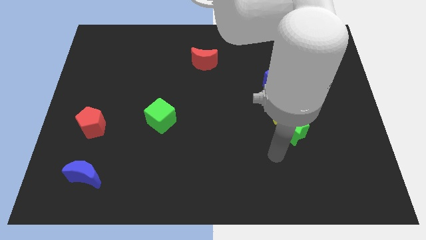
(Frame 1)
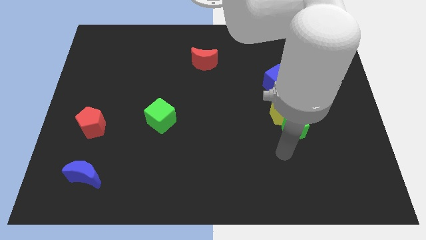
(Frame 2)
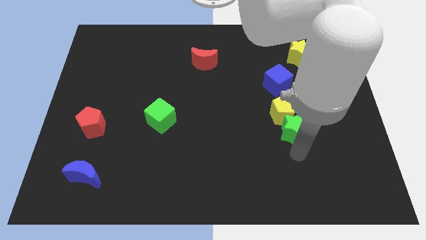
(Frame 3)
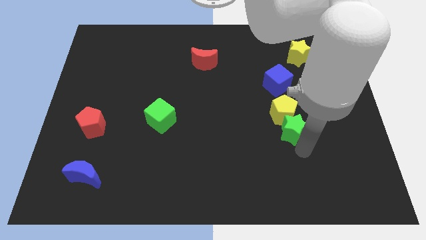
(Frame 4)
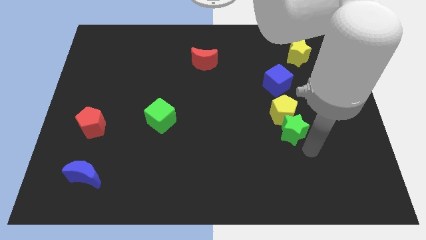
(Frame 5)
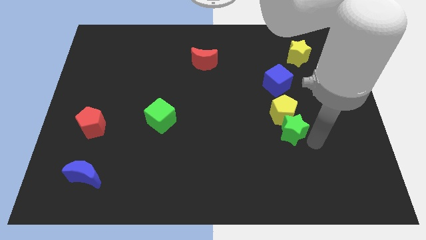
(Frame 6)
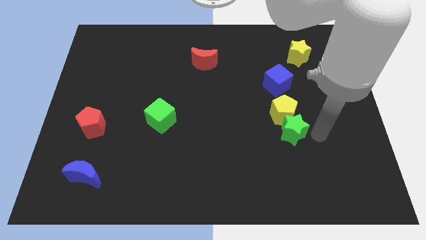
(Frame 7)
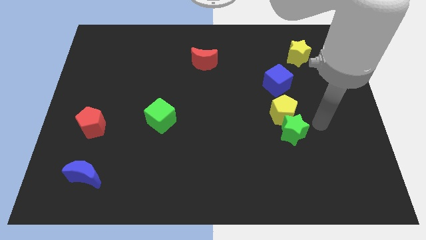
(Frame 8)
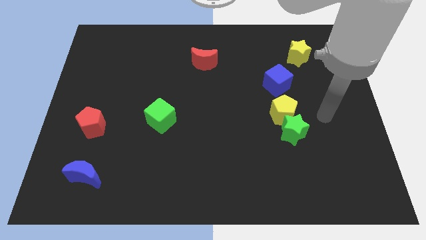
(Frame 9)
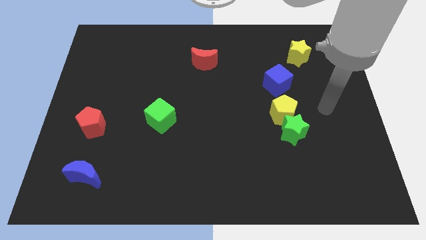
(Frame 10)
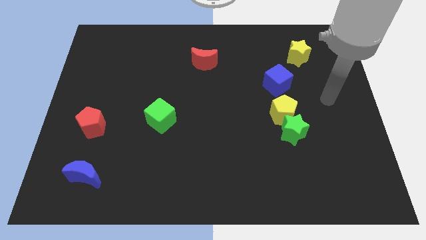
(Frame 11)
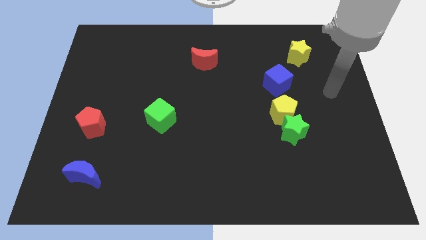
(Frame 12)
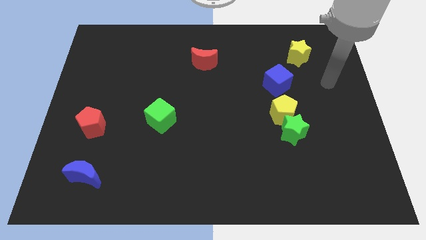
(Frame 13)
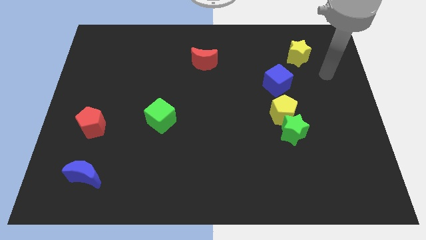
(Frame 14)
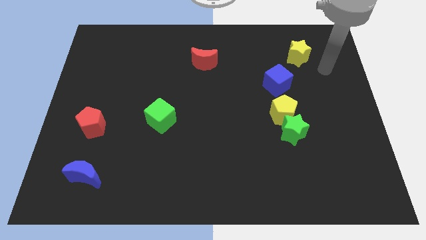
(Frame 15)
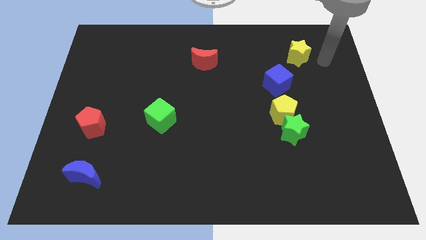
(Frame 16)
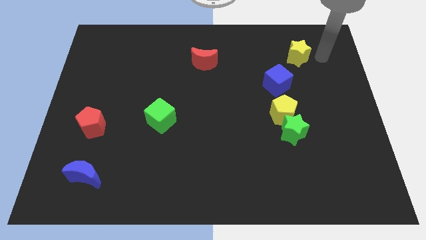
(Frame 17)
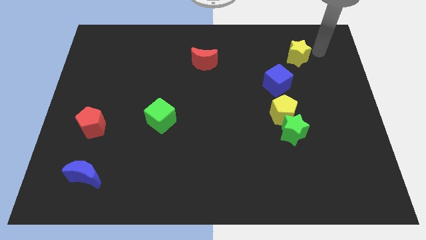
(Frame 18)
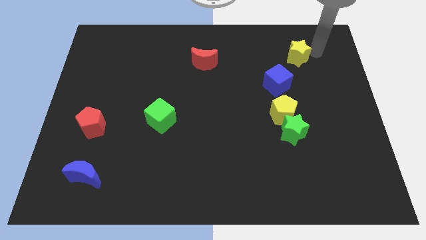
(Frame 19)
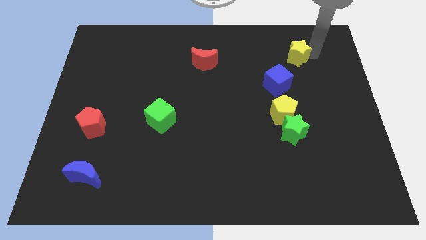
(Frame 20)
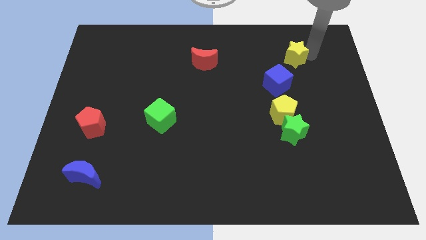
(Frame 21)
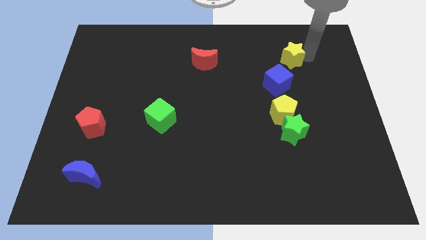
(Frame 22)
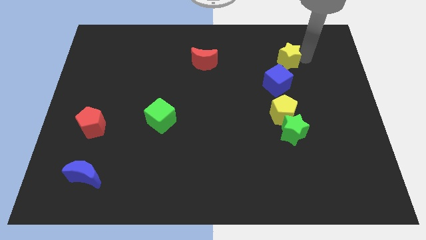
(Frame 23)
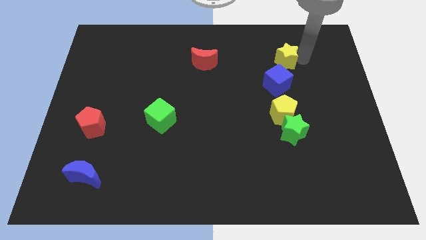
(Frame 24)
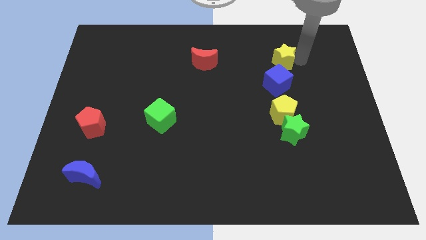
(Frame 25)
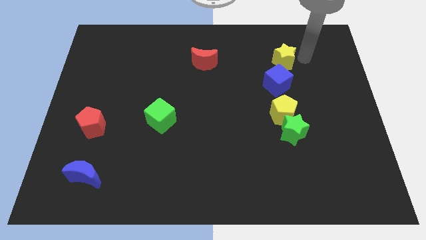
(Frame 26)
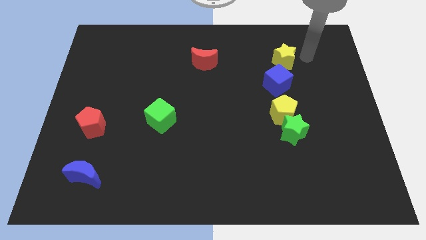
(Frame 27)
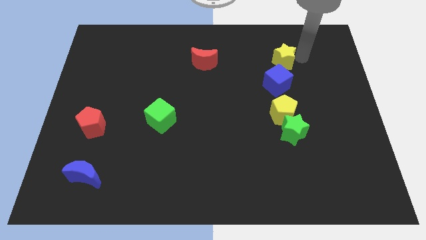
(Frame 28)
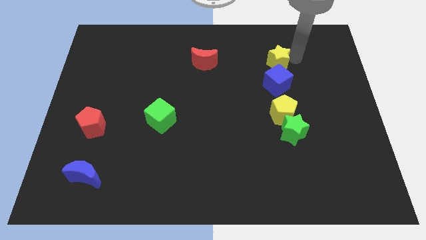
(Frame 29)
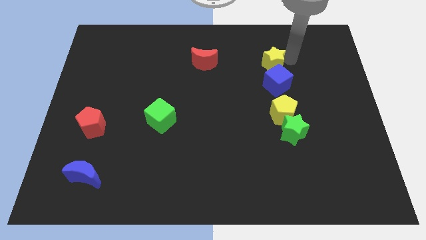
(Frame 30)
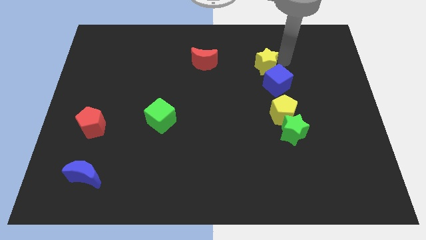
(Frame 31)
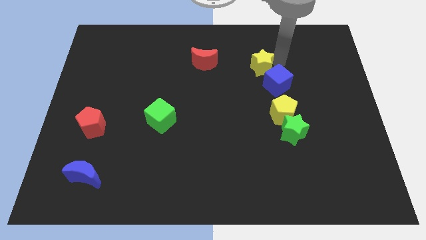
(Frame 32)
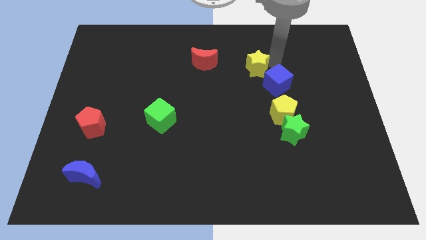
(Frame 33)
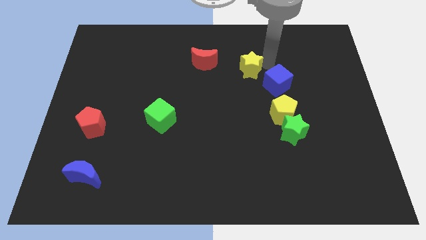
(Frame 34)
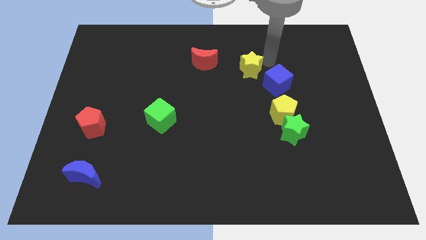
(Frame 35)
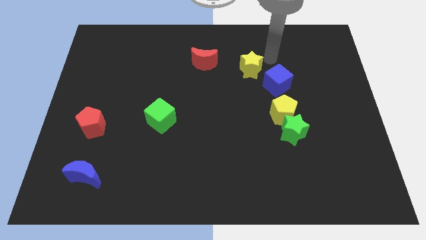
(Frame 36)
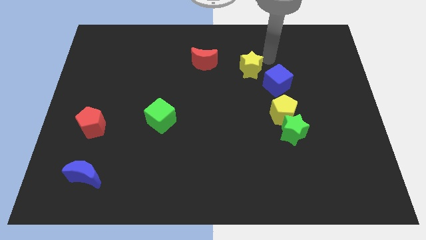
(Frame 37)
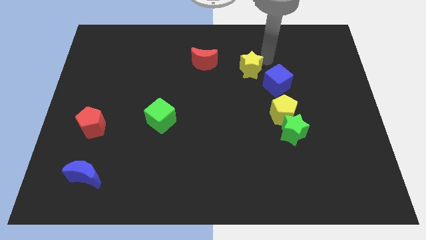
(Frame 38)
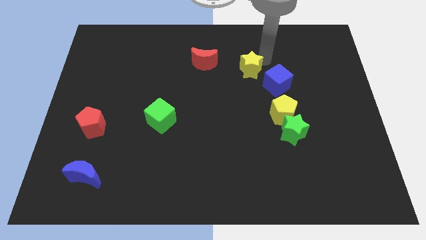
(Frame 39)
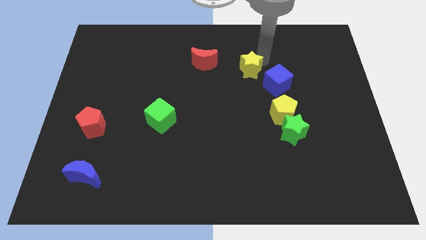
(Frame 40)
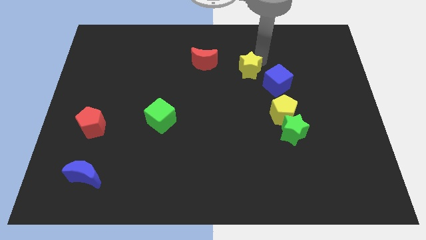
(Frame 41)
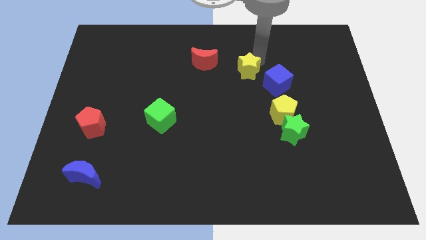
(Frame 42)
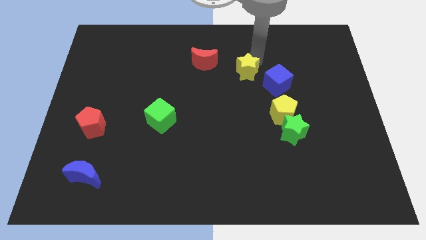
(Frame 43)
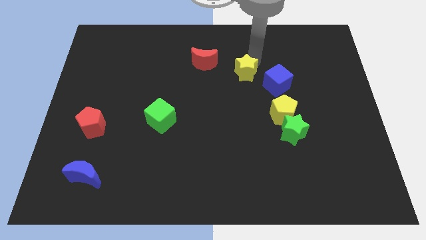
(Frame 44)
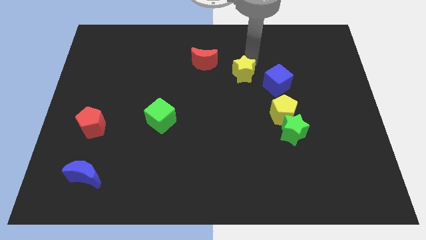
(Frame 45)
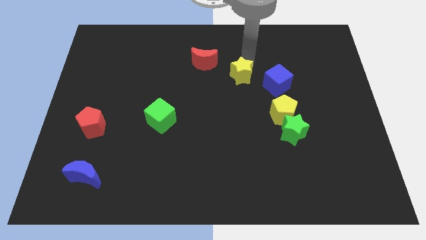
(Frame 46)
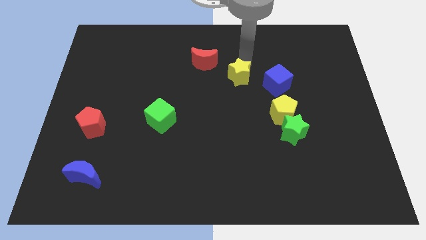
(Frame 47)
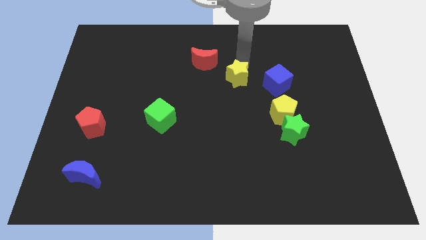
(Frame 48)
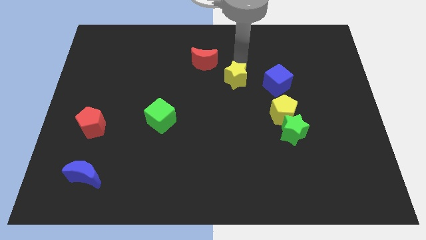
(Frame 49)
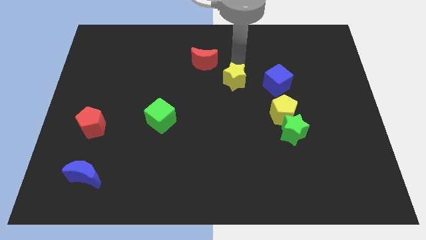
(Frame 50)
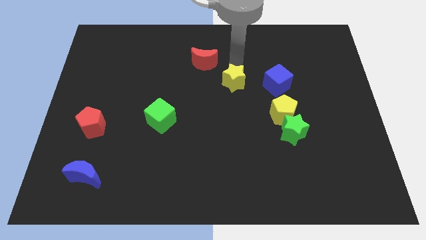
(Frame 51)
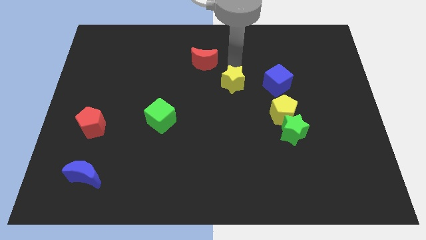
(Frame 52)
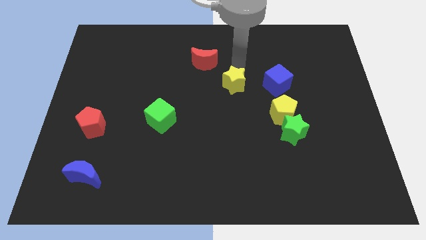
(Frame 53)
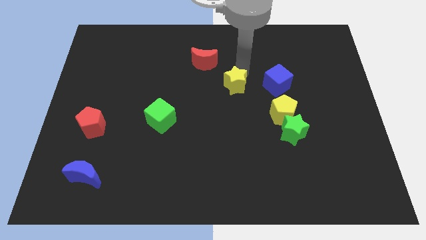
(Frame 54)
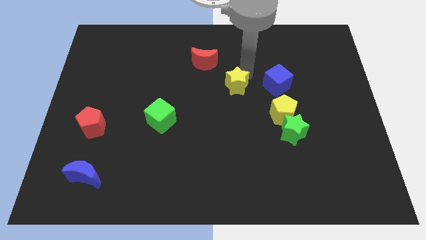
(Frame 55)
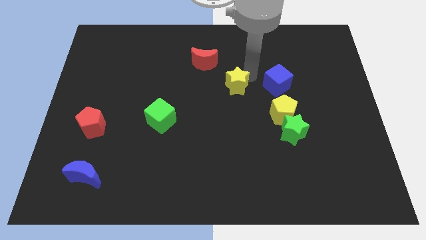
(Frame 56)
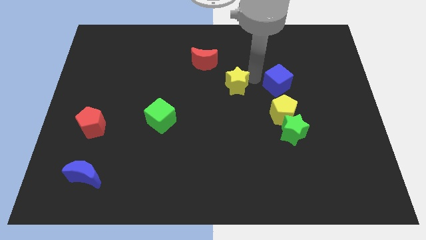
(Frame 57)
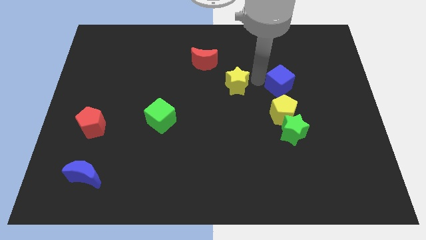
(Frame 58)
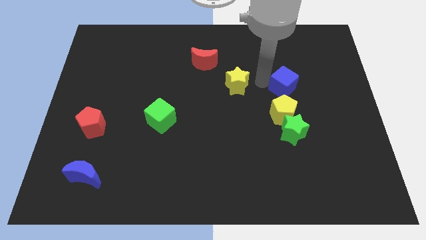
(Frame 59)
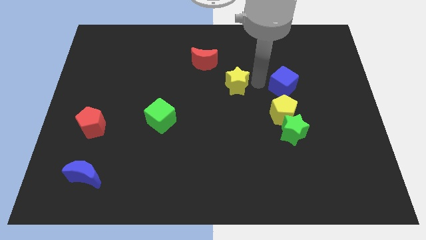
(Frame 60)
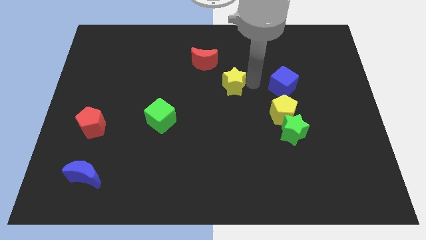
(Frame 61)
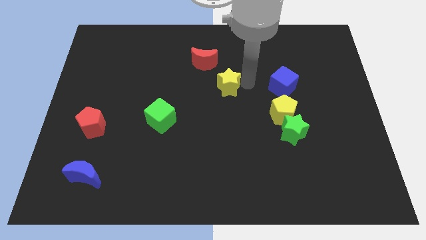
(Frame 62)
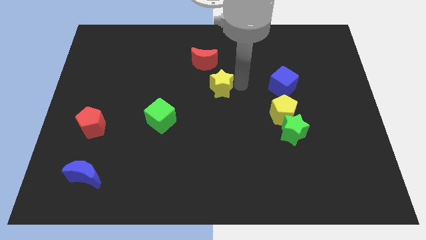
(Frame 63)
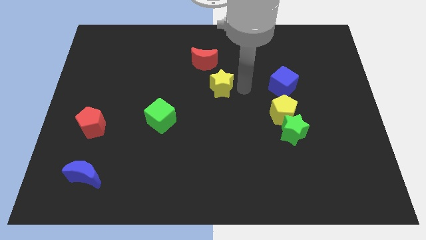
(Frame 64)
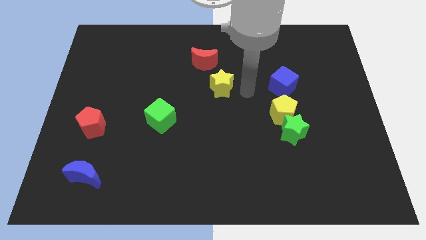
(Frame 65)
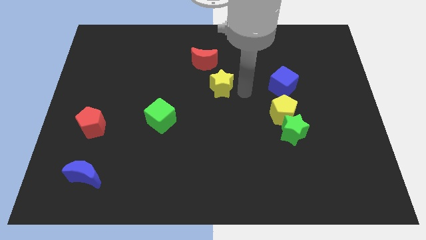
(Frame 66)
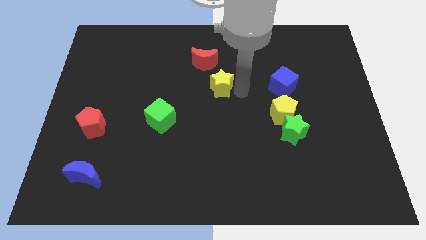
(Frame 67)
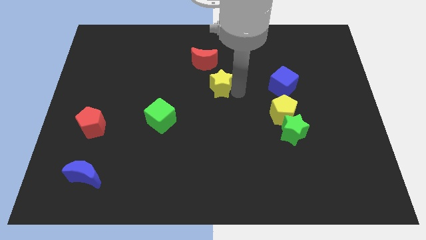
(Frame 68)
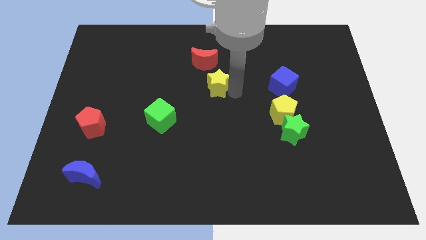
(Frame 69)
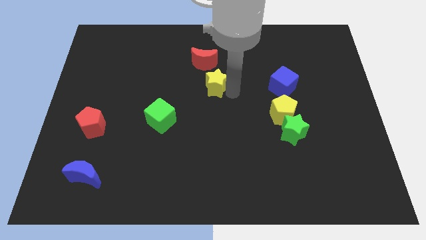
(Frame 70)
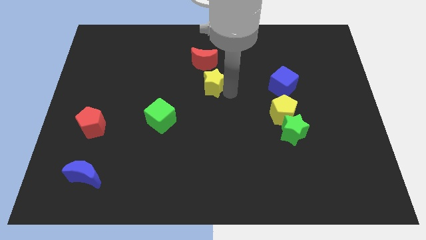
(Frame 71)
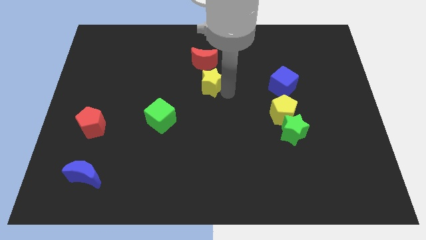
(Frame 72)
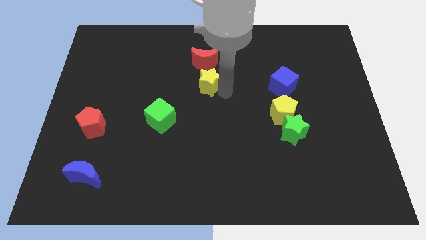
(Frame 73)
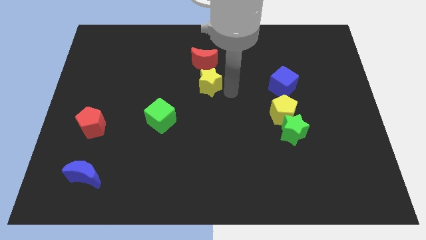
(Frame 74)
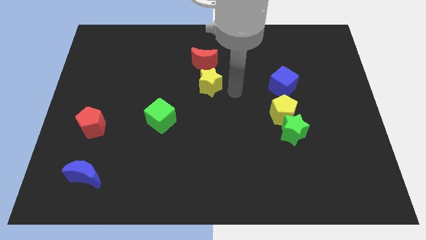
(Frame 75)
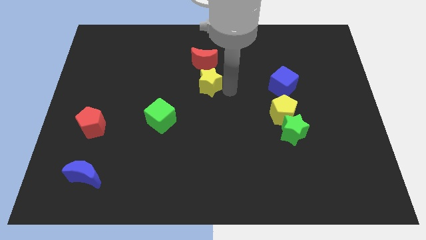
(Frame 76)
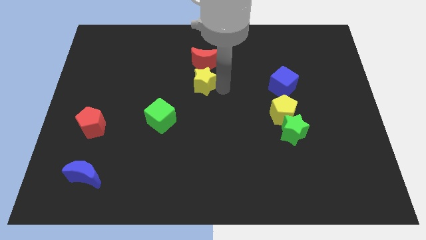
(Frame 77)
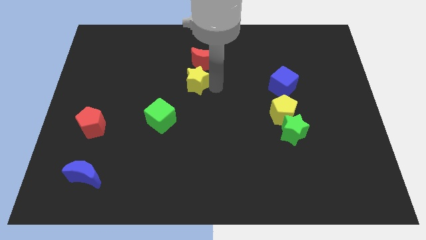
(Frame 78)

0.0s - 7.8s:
push the yellow star to the bottom left side of the red moon
